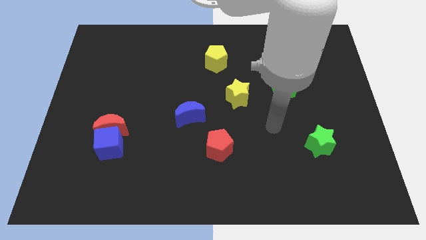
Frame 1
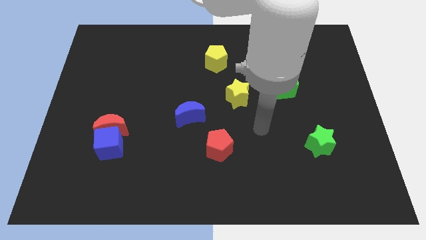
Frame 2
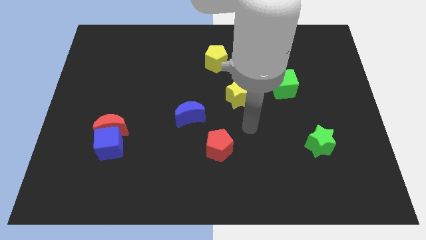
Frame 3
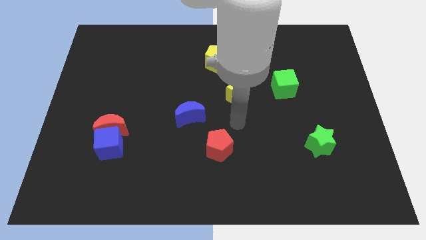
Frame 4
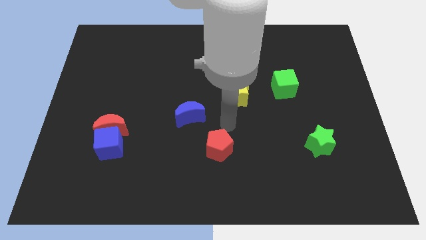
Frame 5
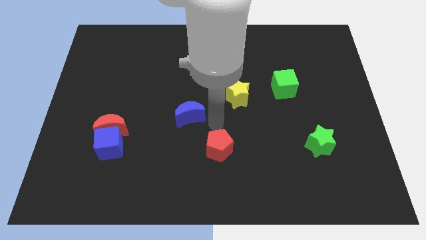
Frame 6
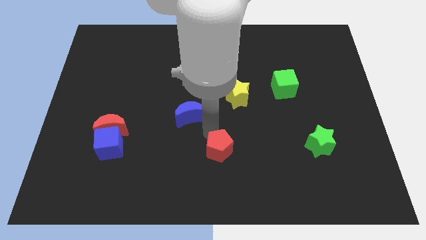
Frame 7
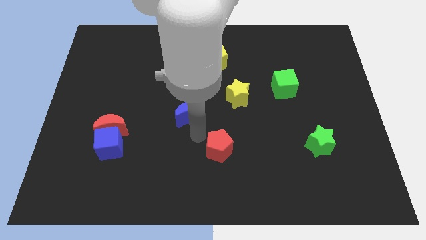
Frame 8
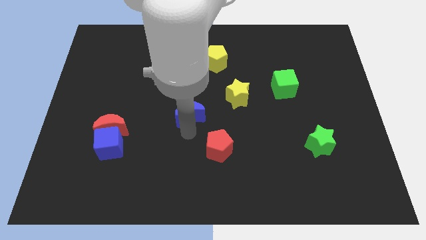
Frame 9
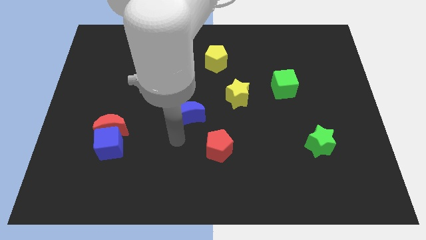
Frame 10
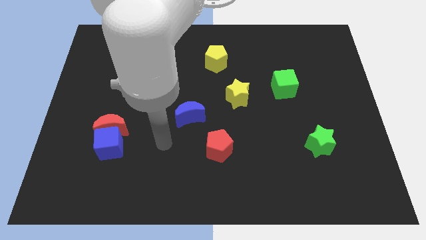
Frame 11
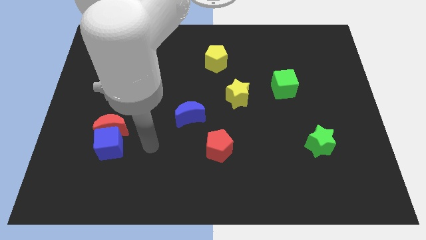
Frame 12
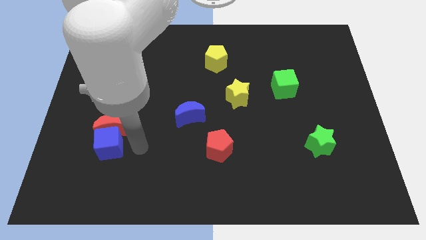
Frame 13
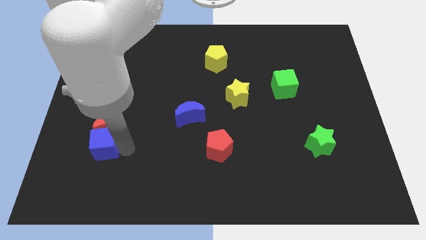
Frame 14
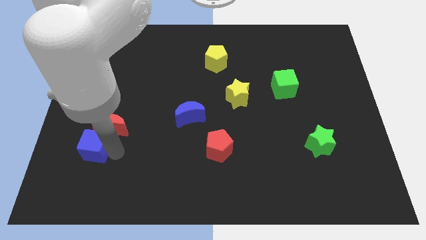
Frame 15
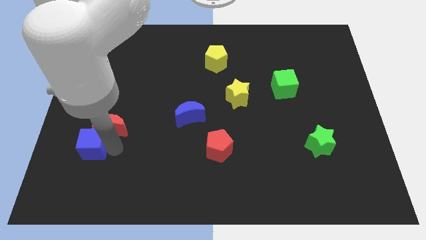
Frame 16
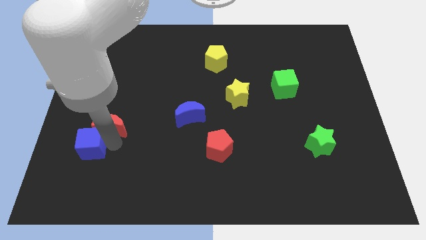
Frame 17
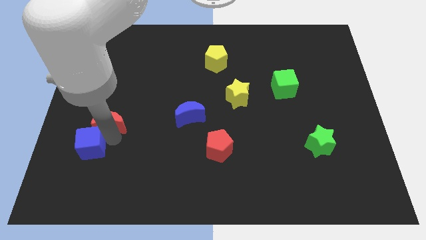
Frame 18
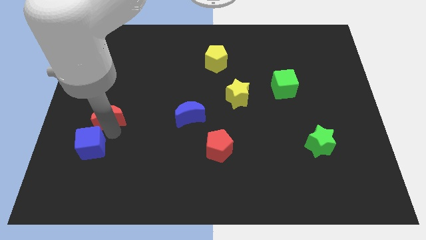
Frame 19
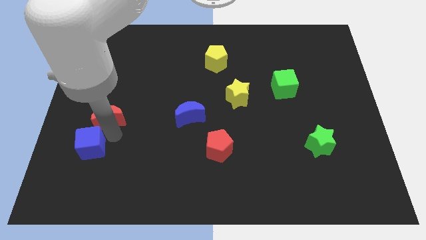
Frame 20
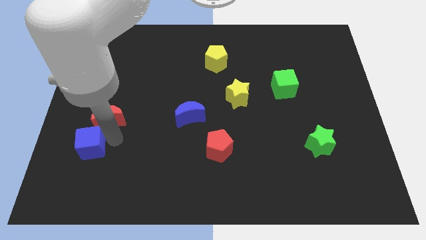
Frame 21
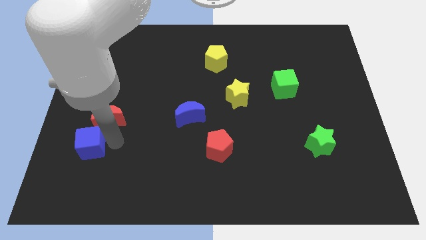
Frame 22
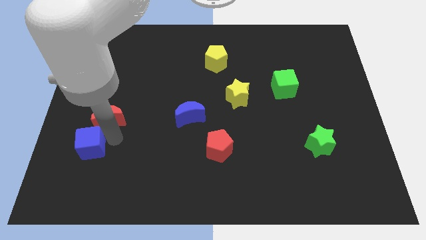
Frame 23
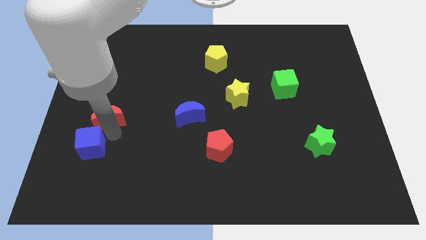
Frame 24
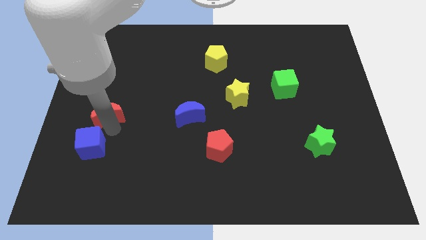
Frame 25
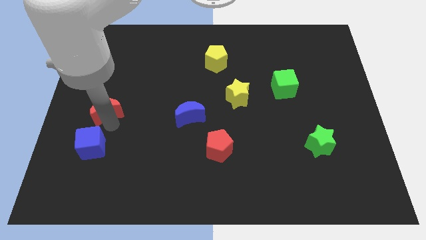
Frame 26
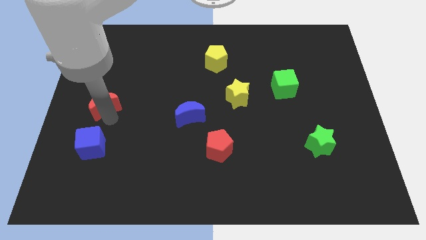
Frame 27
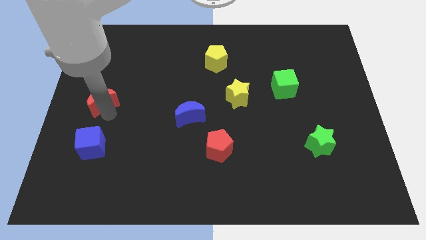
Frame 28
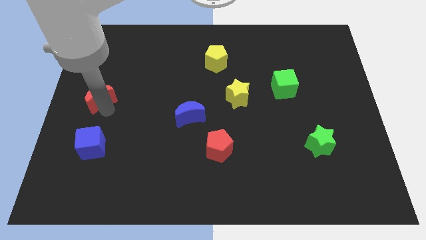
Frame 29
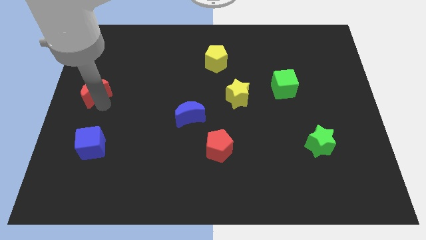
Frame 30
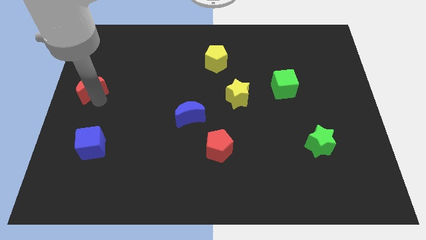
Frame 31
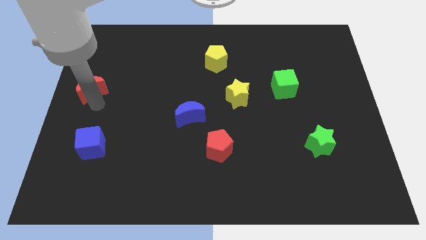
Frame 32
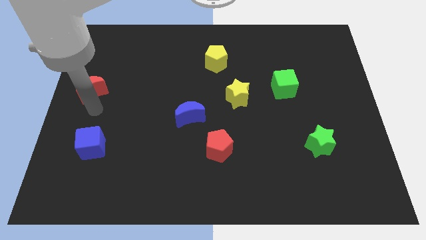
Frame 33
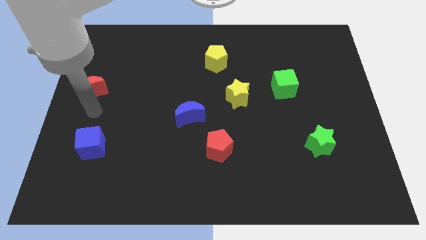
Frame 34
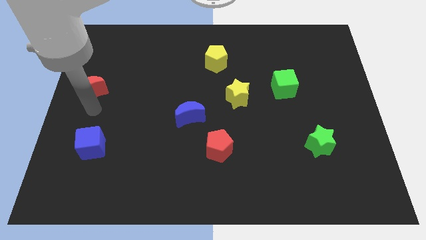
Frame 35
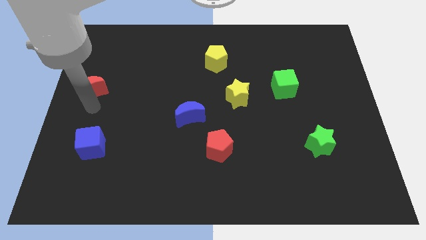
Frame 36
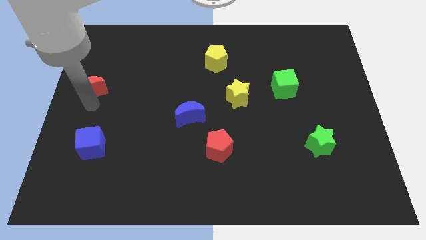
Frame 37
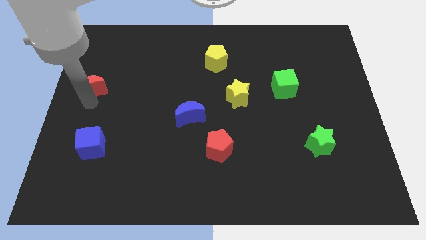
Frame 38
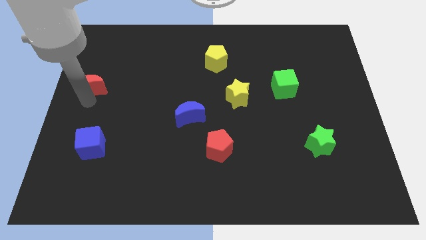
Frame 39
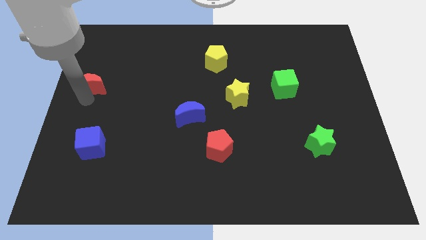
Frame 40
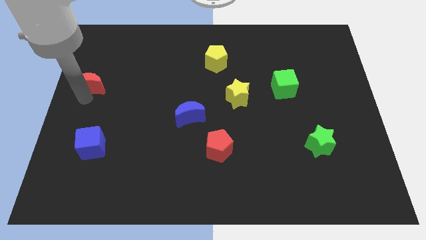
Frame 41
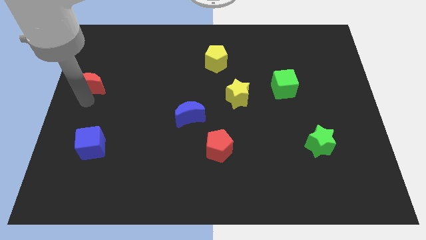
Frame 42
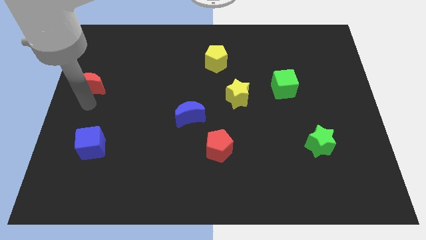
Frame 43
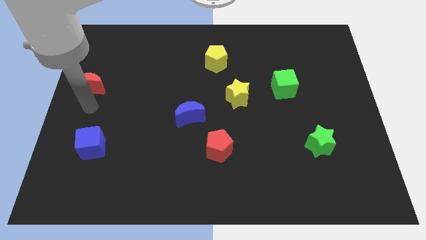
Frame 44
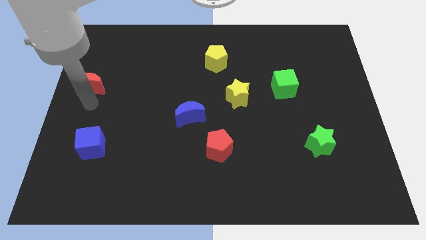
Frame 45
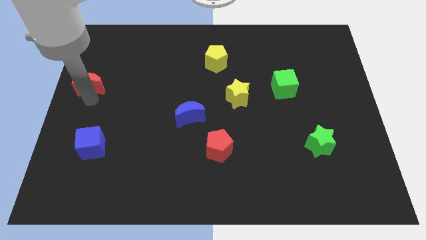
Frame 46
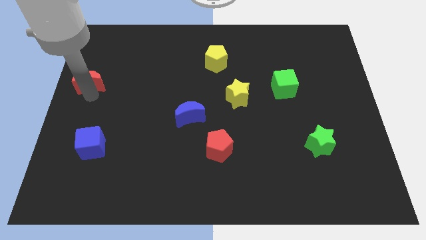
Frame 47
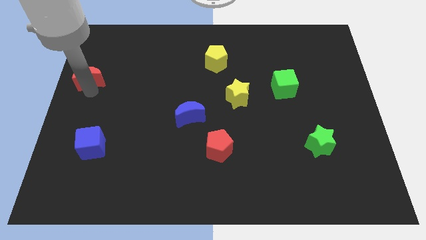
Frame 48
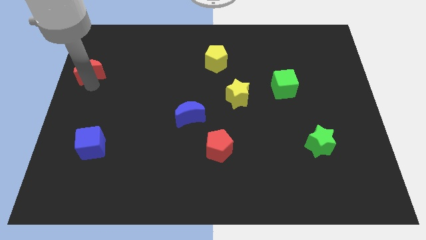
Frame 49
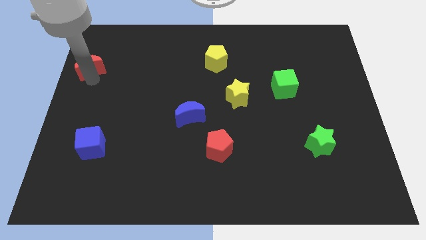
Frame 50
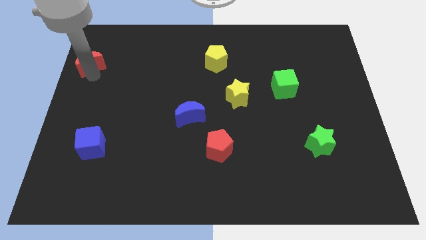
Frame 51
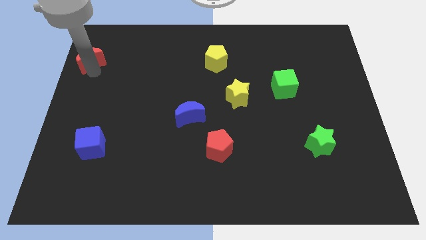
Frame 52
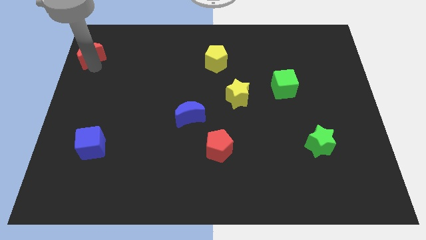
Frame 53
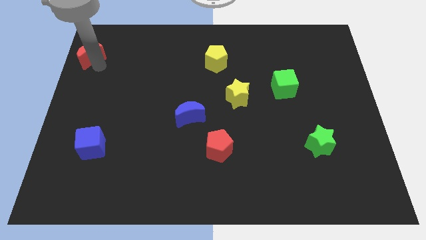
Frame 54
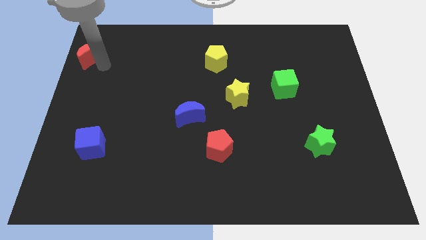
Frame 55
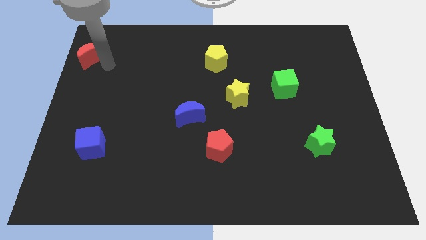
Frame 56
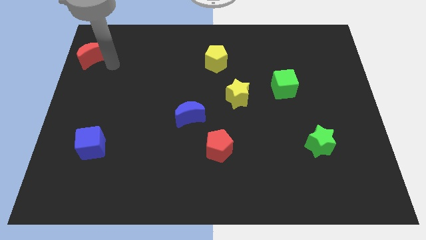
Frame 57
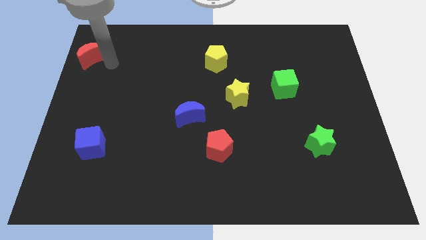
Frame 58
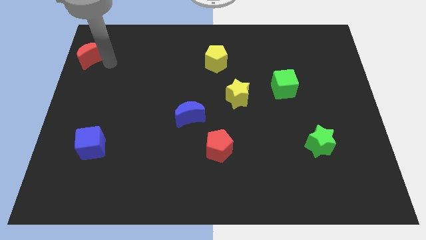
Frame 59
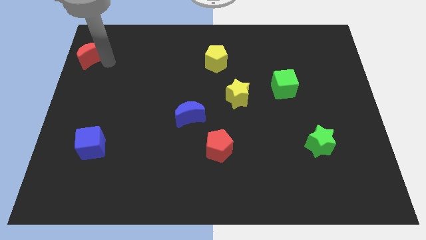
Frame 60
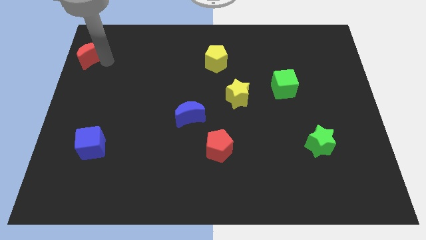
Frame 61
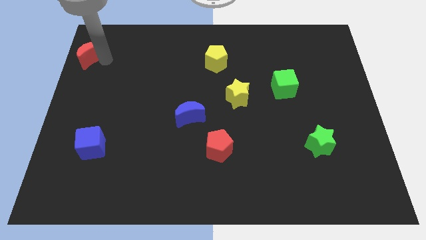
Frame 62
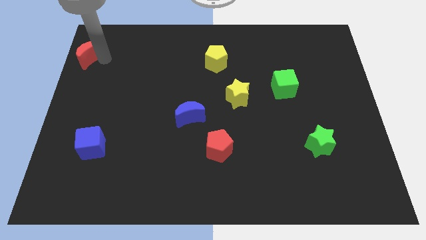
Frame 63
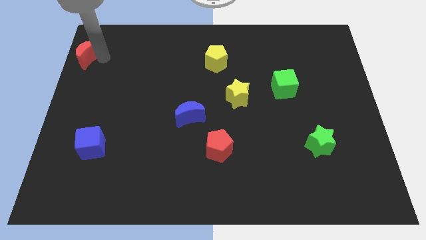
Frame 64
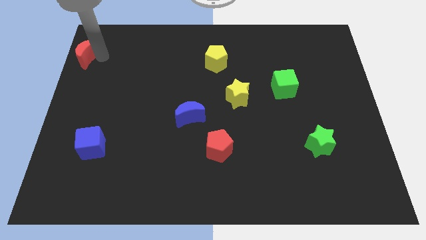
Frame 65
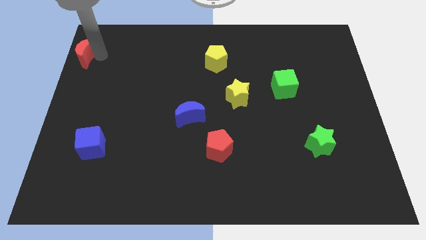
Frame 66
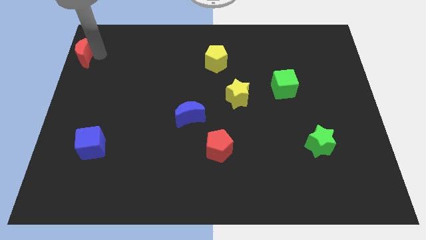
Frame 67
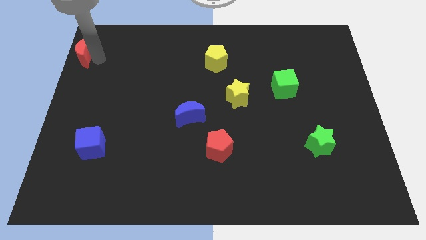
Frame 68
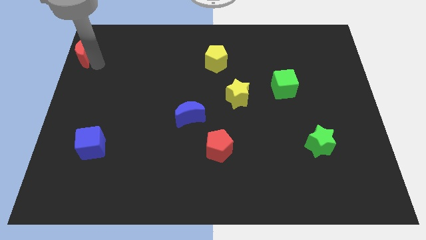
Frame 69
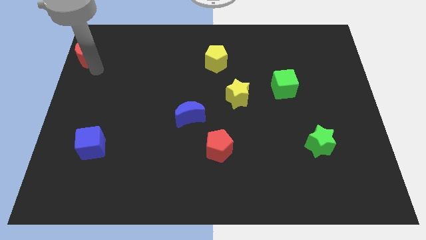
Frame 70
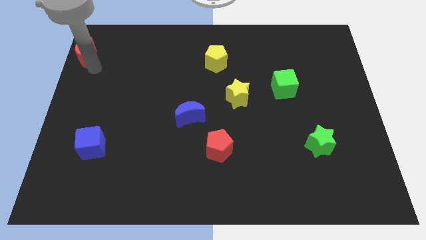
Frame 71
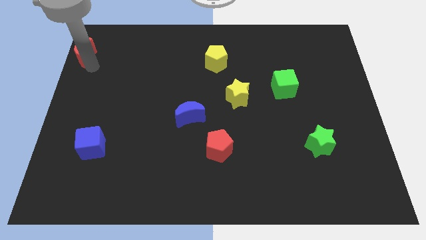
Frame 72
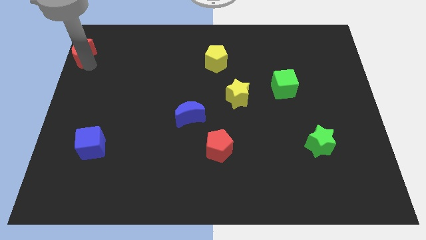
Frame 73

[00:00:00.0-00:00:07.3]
put the red moon to the top left corner
